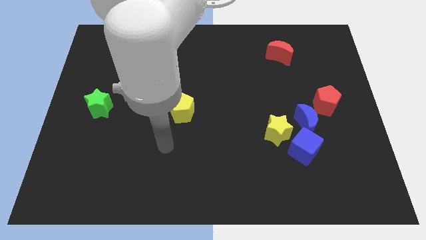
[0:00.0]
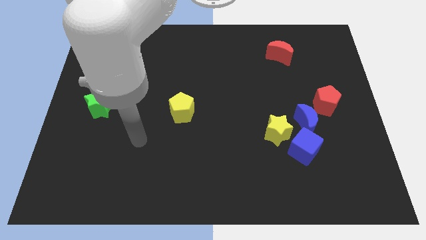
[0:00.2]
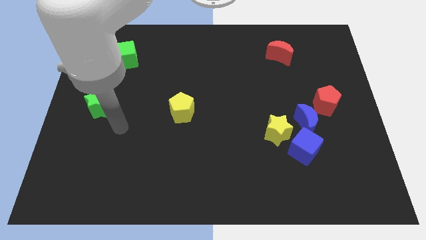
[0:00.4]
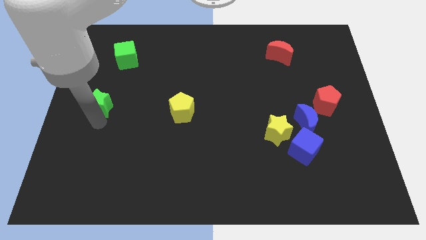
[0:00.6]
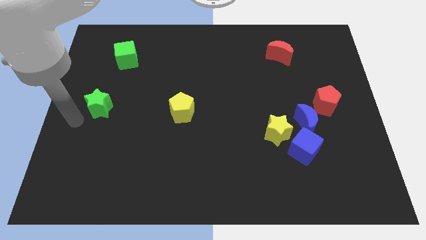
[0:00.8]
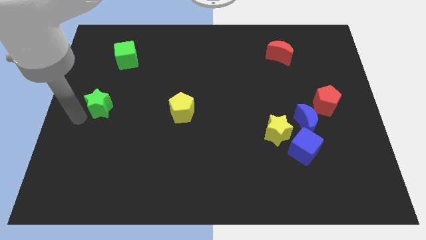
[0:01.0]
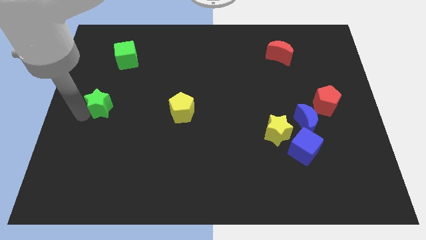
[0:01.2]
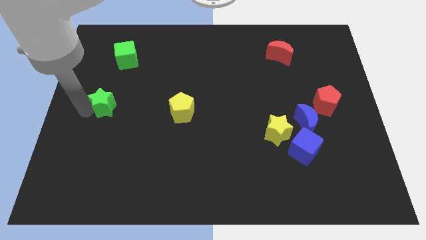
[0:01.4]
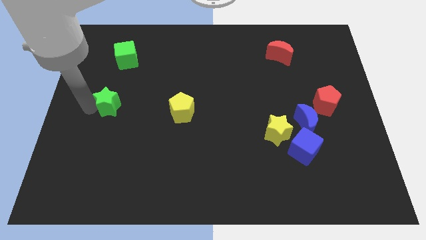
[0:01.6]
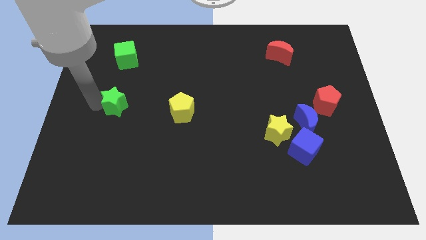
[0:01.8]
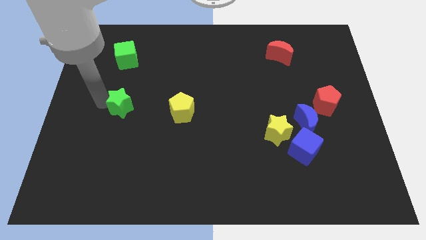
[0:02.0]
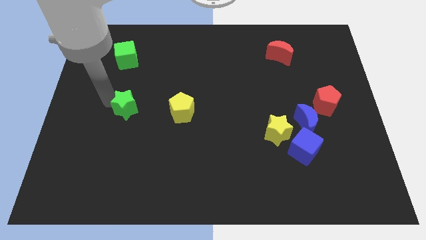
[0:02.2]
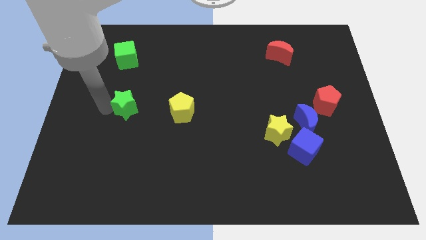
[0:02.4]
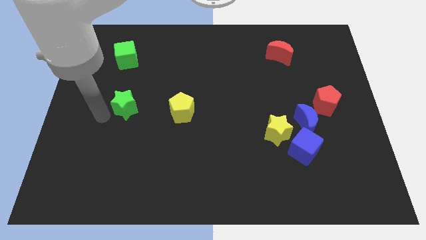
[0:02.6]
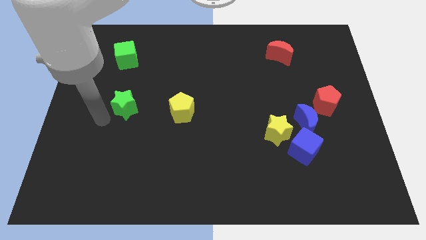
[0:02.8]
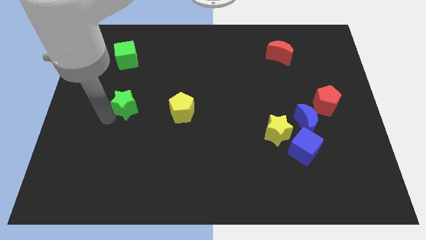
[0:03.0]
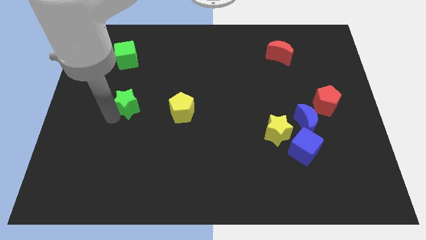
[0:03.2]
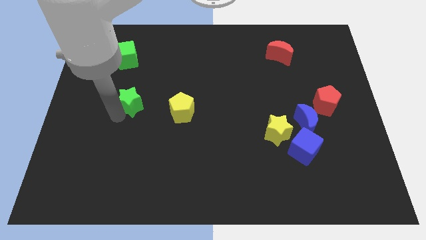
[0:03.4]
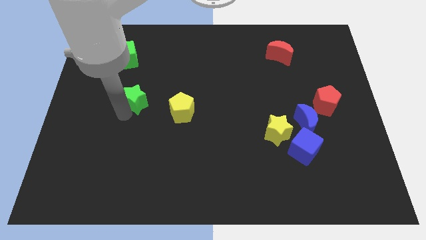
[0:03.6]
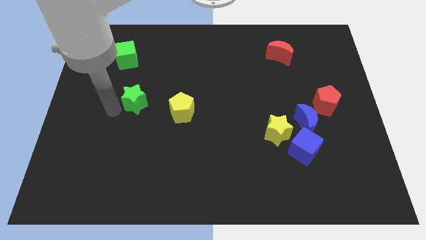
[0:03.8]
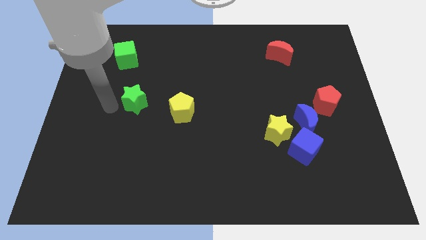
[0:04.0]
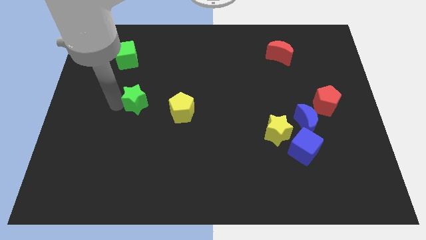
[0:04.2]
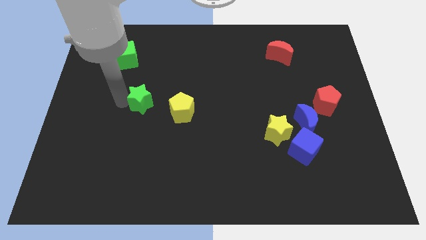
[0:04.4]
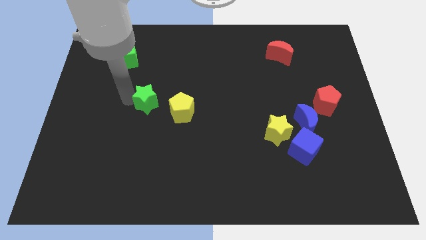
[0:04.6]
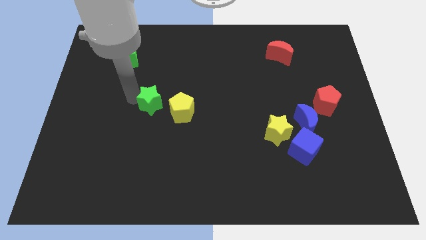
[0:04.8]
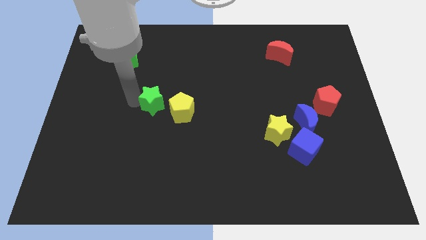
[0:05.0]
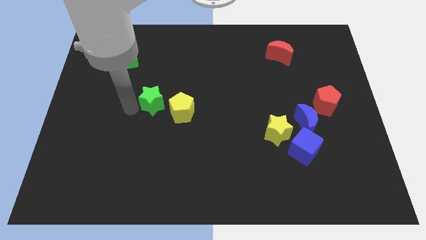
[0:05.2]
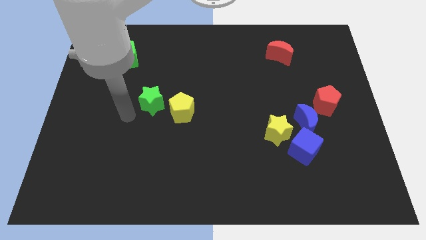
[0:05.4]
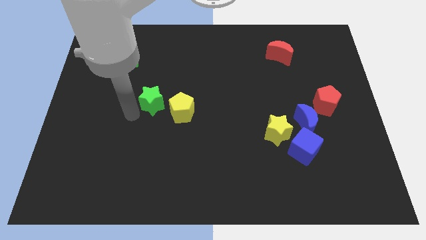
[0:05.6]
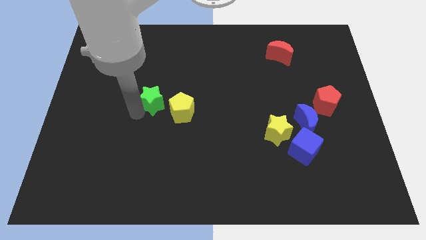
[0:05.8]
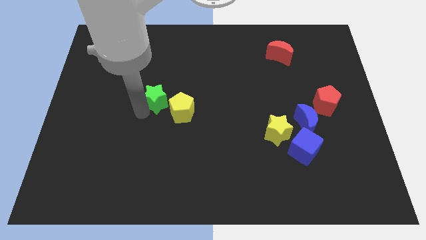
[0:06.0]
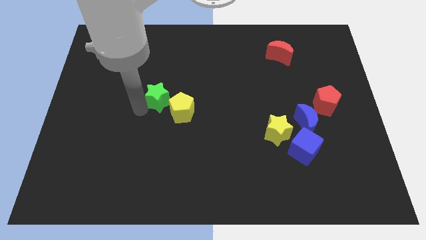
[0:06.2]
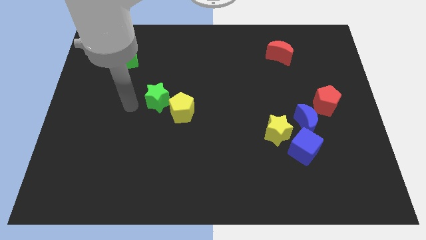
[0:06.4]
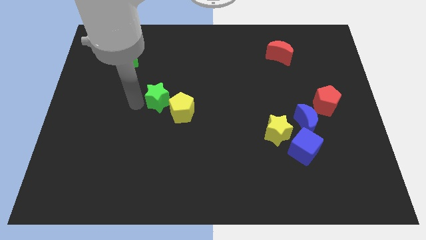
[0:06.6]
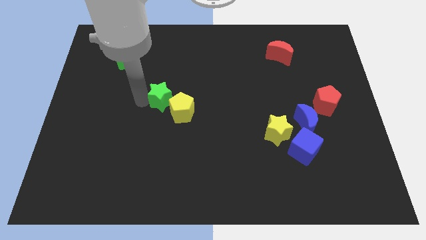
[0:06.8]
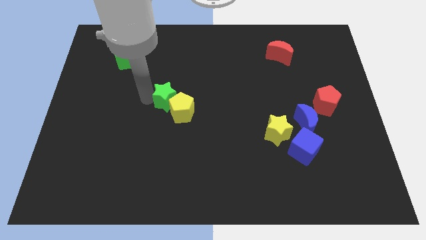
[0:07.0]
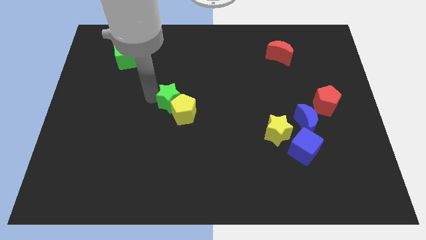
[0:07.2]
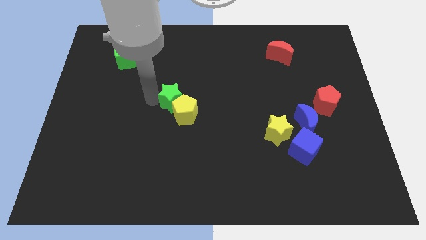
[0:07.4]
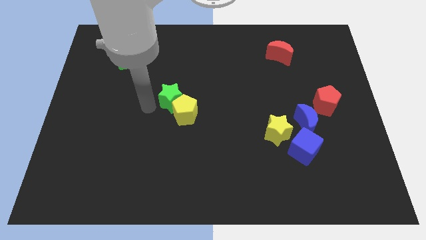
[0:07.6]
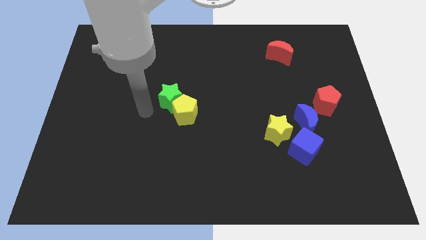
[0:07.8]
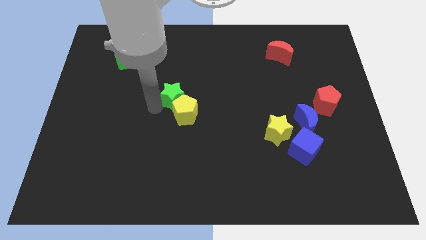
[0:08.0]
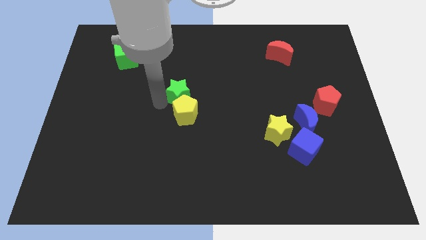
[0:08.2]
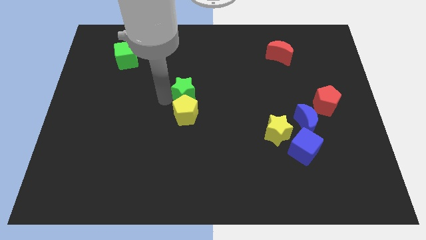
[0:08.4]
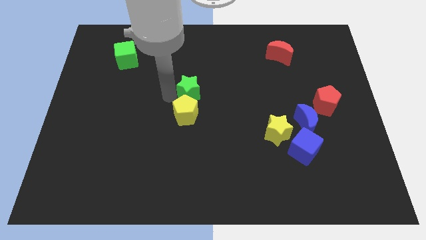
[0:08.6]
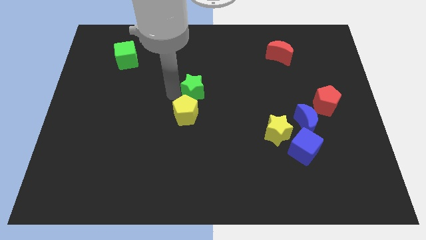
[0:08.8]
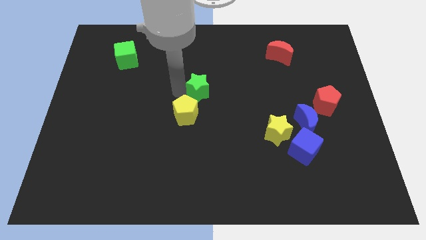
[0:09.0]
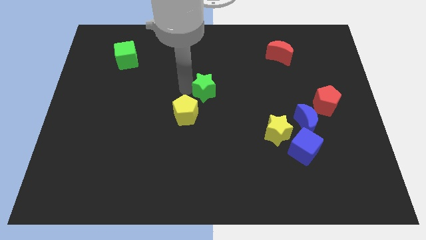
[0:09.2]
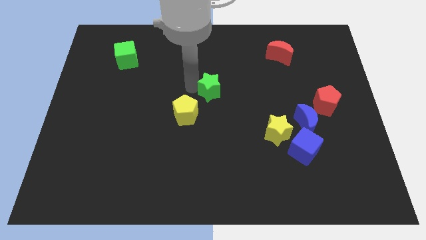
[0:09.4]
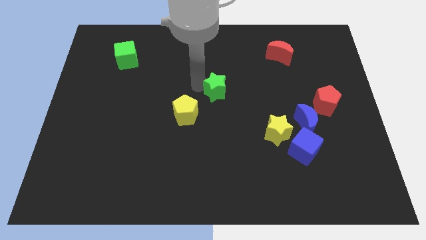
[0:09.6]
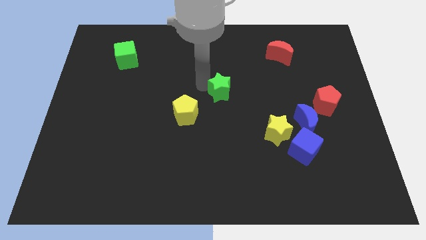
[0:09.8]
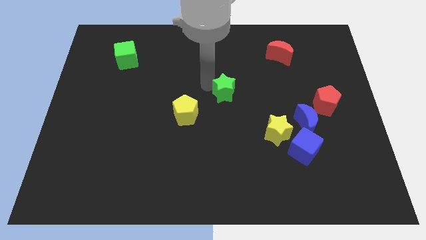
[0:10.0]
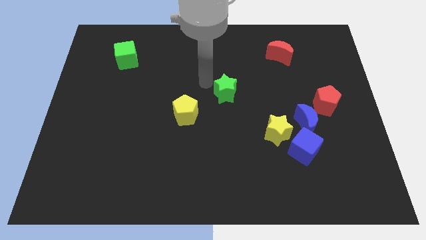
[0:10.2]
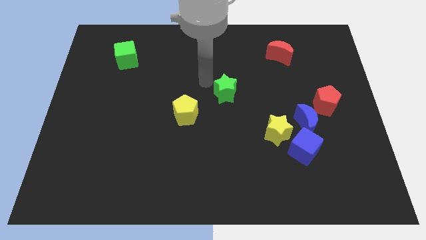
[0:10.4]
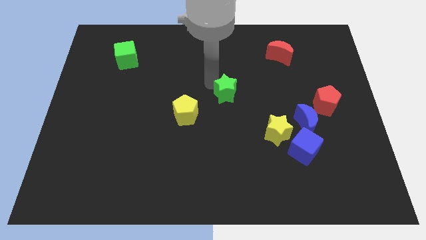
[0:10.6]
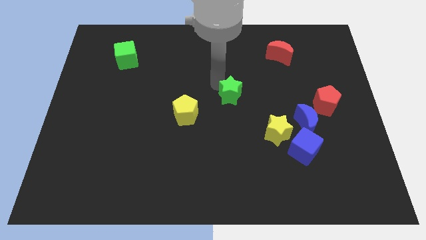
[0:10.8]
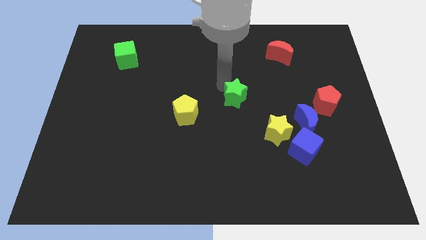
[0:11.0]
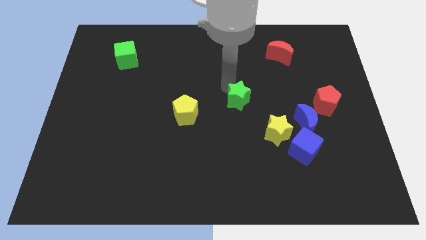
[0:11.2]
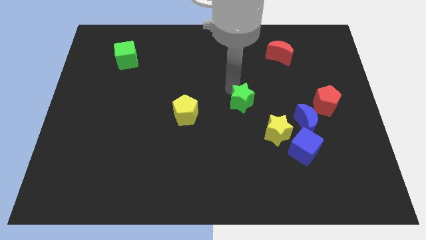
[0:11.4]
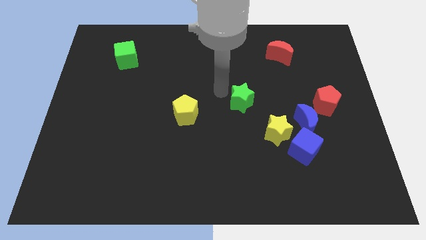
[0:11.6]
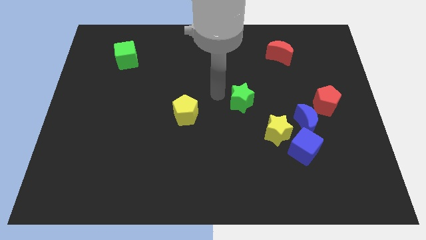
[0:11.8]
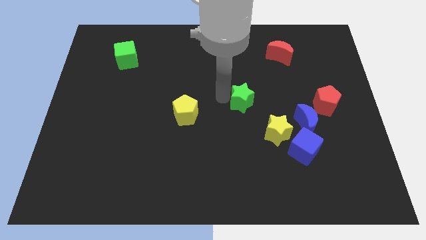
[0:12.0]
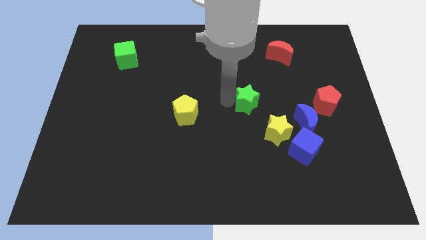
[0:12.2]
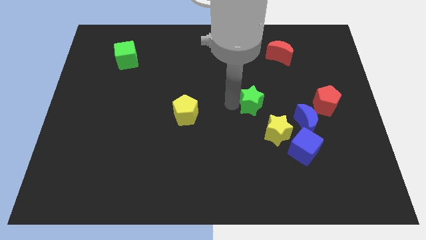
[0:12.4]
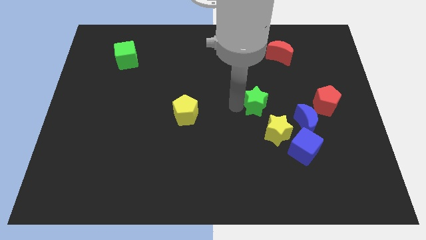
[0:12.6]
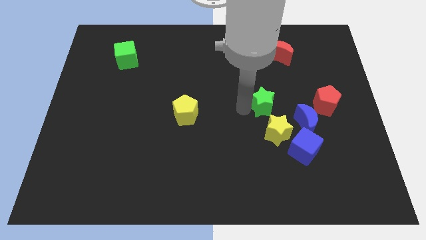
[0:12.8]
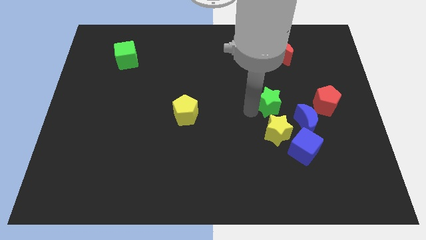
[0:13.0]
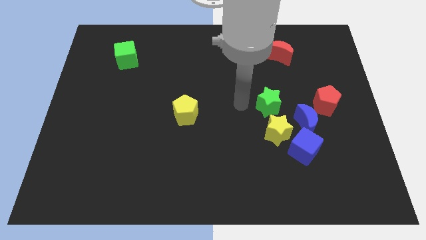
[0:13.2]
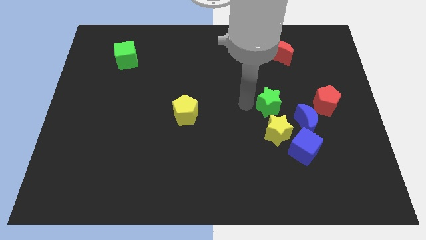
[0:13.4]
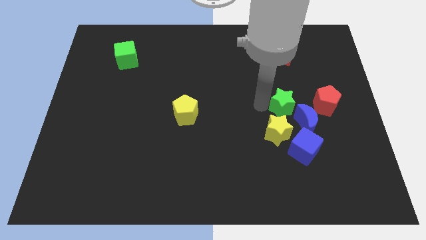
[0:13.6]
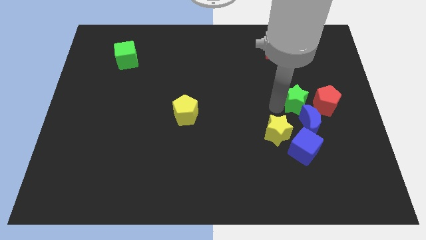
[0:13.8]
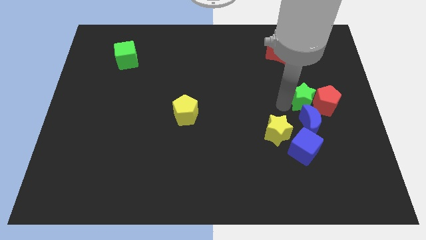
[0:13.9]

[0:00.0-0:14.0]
put the green star to the red pentagon

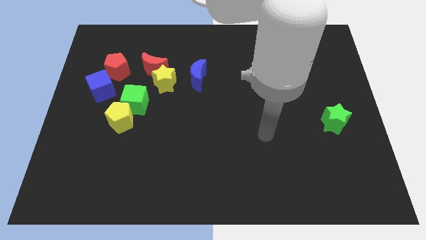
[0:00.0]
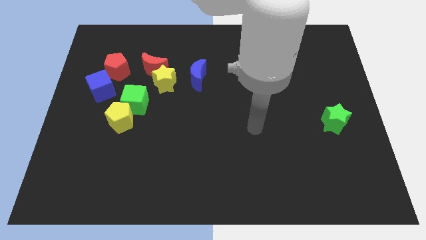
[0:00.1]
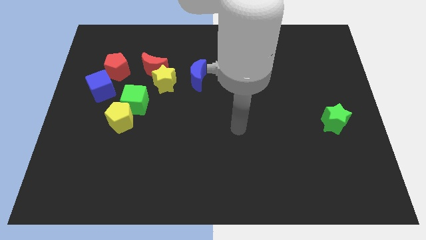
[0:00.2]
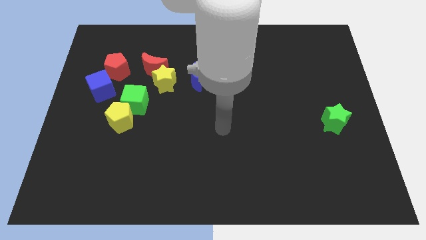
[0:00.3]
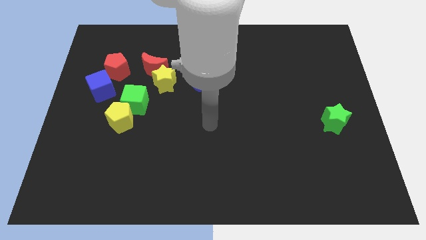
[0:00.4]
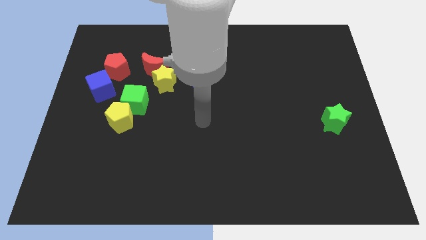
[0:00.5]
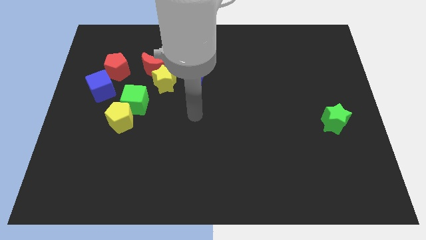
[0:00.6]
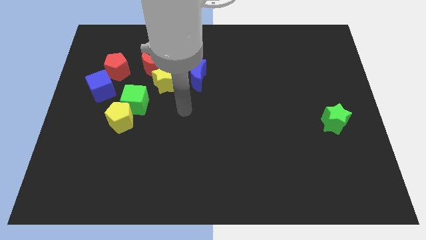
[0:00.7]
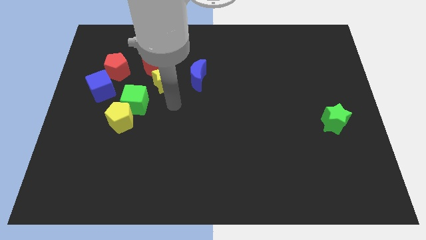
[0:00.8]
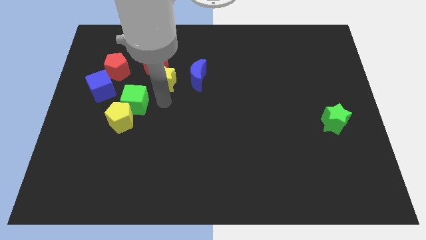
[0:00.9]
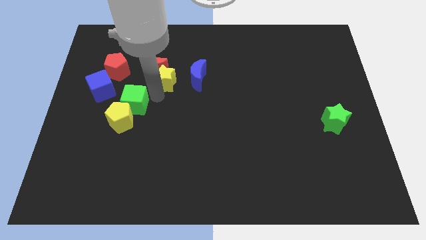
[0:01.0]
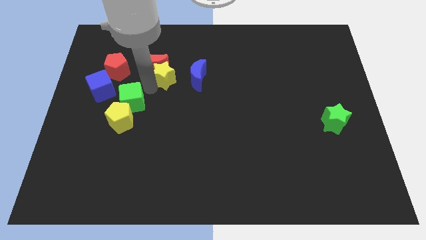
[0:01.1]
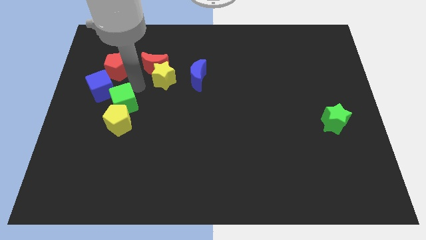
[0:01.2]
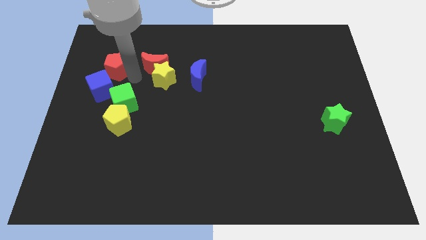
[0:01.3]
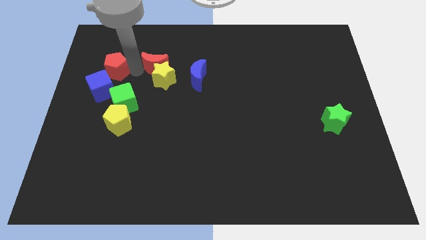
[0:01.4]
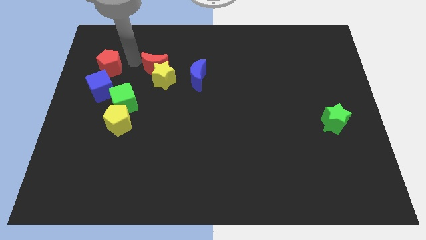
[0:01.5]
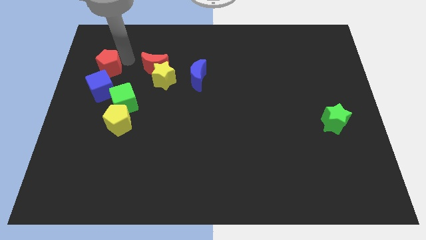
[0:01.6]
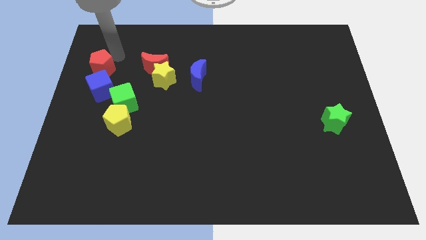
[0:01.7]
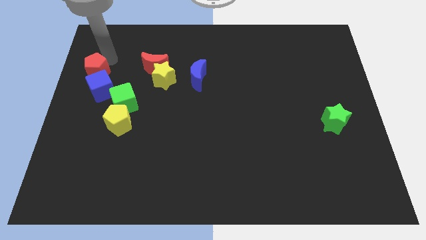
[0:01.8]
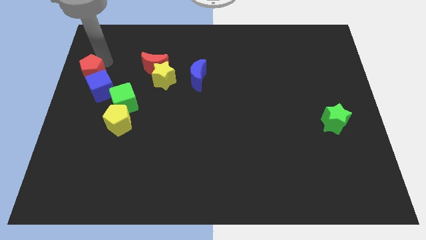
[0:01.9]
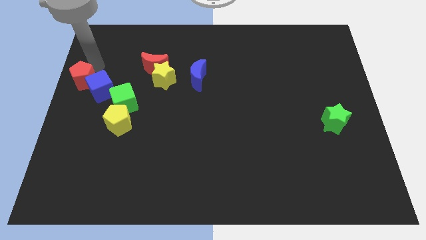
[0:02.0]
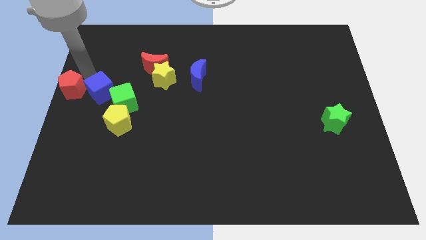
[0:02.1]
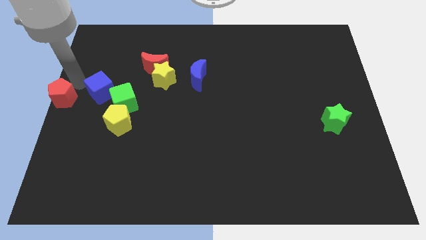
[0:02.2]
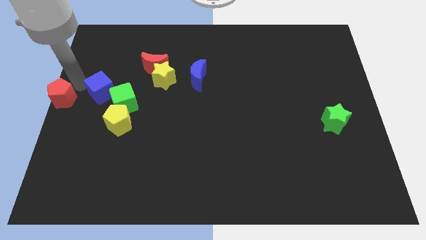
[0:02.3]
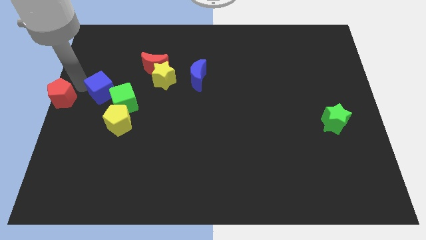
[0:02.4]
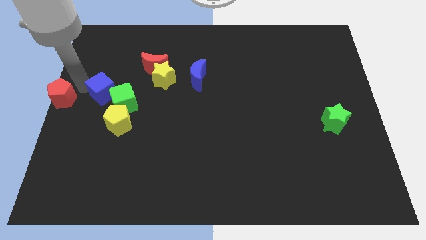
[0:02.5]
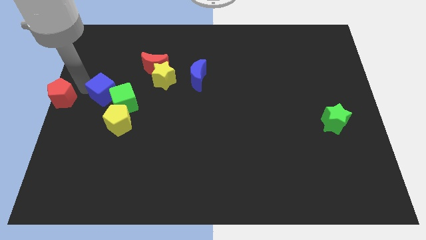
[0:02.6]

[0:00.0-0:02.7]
put the blue cube towards the green cube
